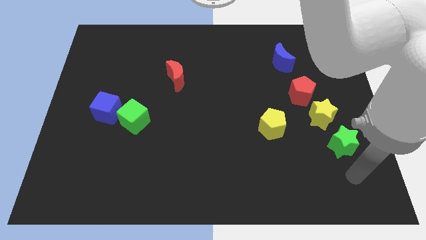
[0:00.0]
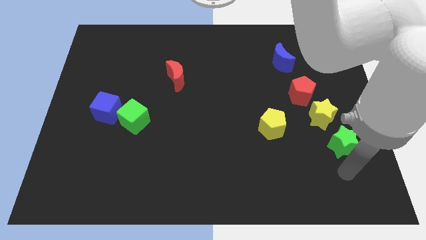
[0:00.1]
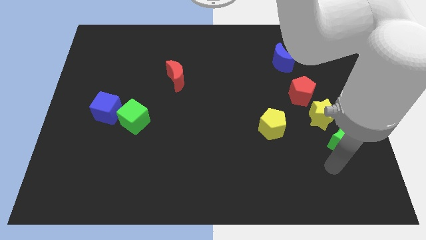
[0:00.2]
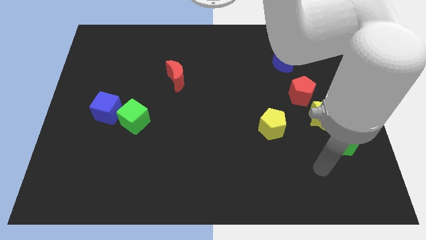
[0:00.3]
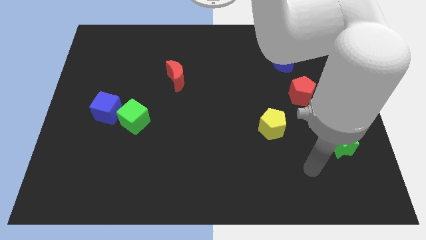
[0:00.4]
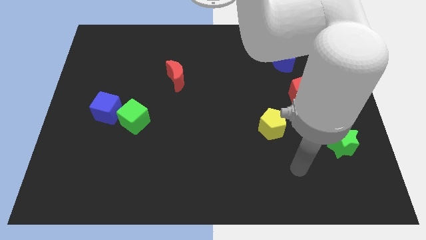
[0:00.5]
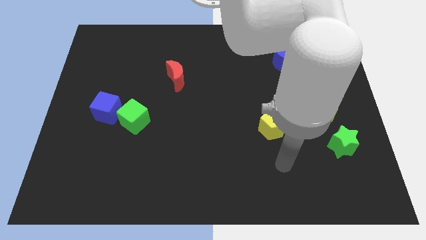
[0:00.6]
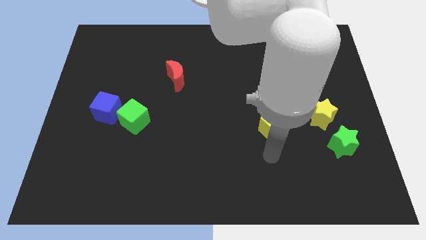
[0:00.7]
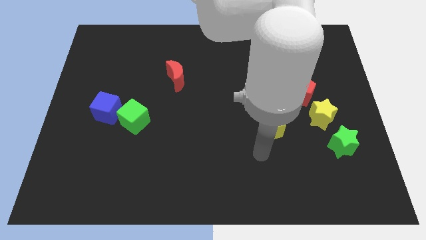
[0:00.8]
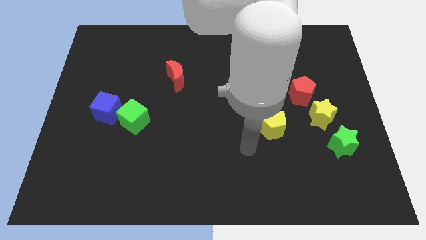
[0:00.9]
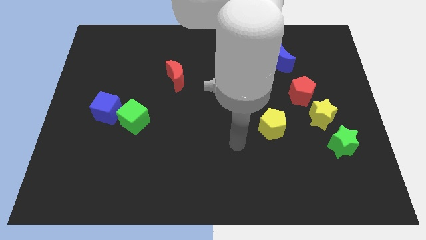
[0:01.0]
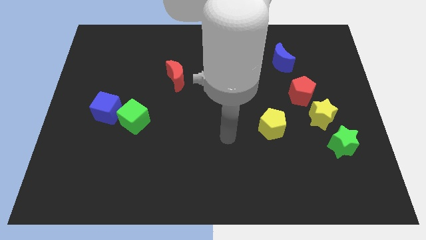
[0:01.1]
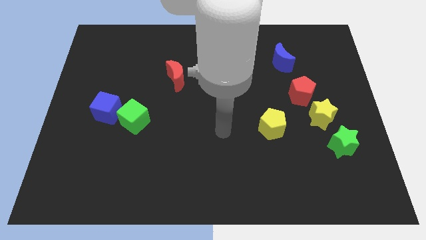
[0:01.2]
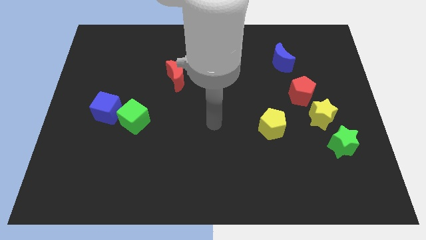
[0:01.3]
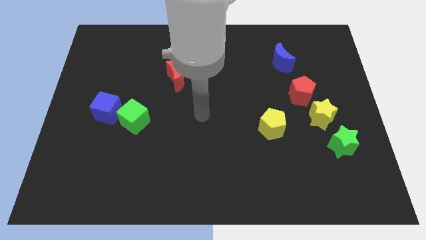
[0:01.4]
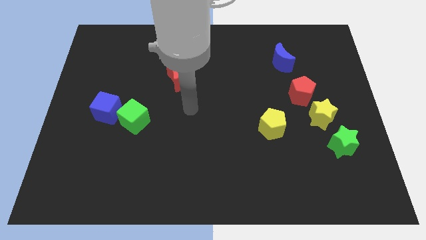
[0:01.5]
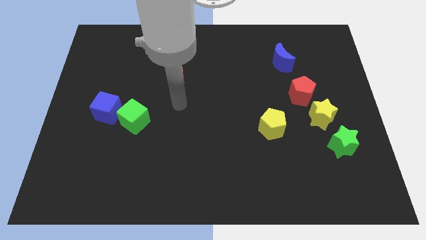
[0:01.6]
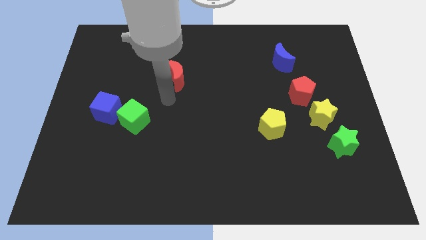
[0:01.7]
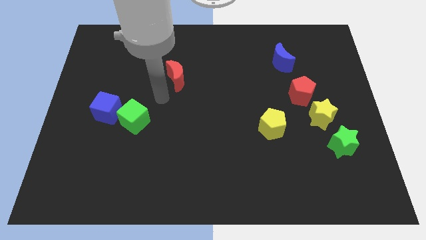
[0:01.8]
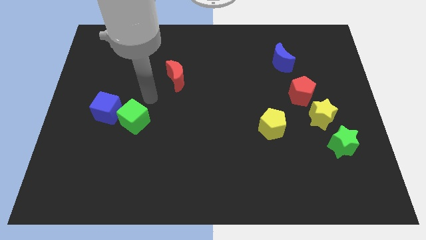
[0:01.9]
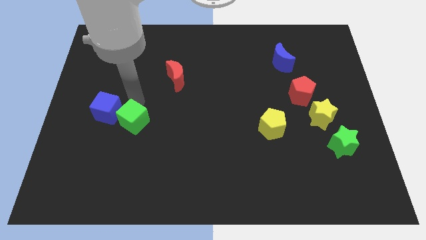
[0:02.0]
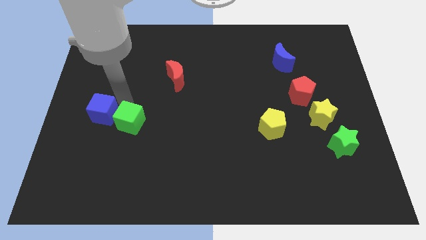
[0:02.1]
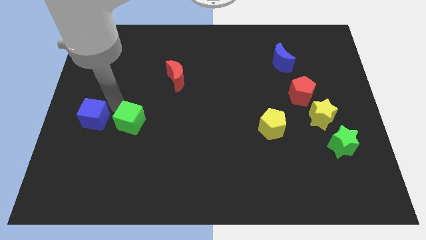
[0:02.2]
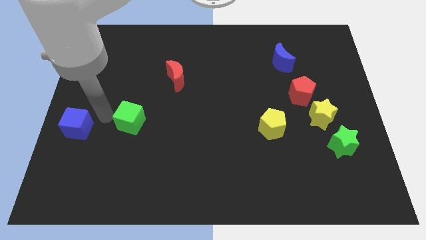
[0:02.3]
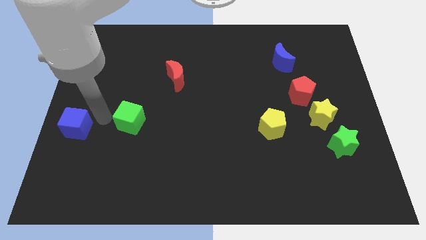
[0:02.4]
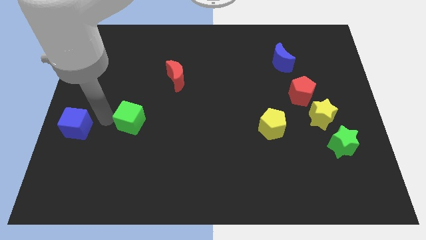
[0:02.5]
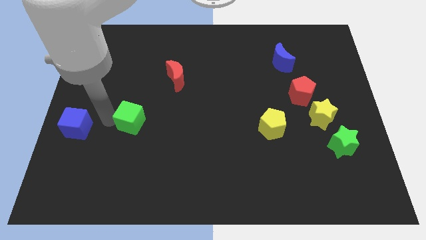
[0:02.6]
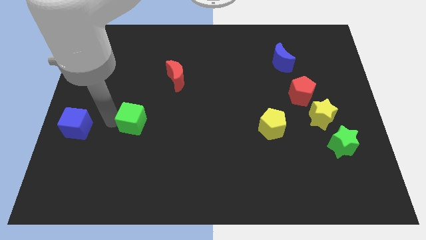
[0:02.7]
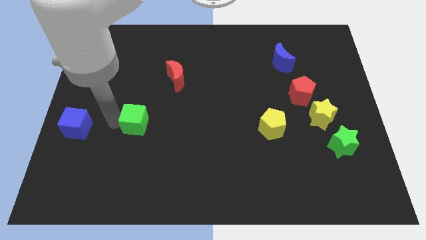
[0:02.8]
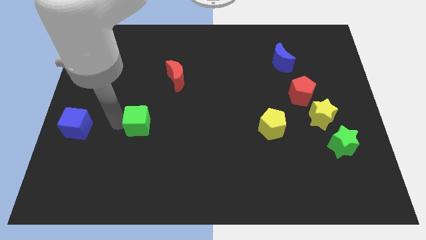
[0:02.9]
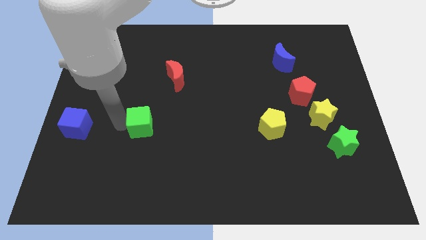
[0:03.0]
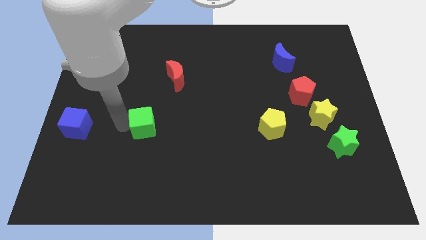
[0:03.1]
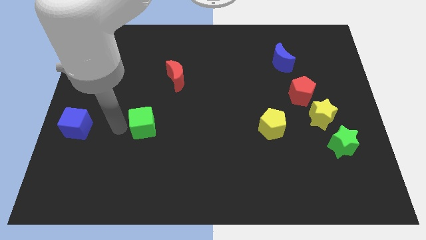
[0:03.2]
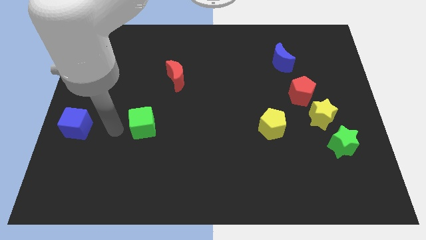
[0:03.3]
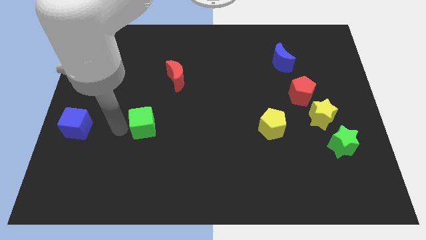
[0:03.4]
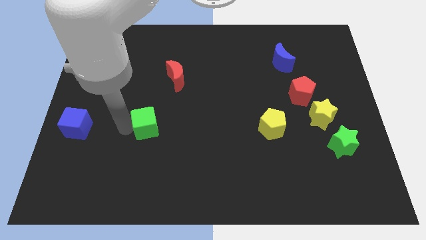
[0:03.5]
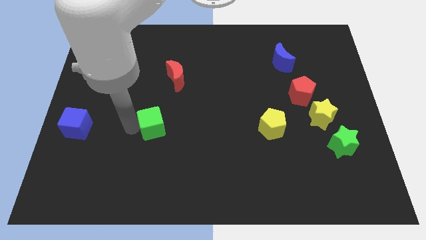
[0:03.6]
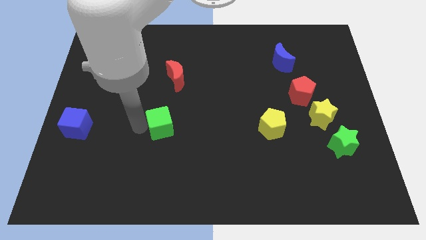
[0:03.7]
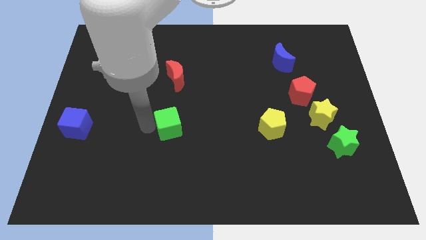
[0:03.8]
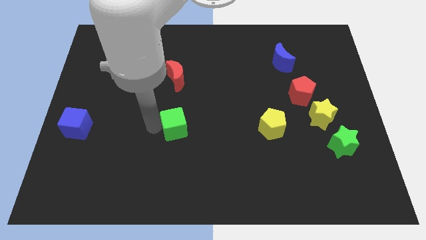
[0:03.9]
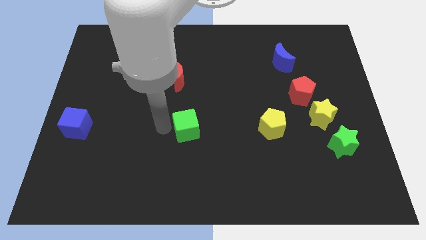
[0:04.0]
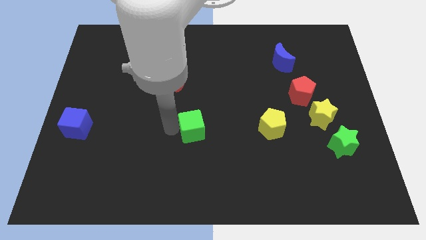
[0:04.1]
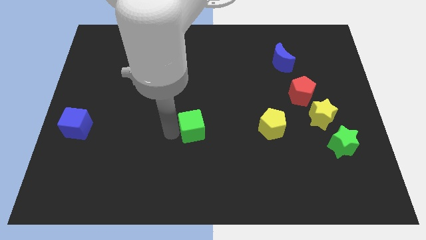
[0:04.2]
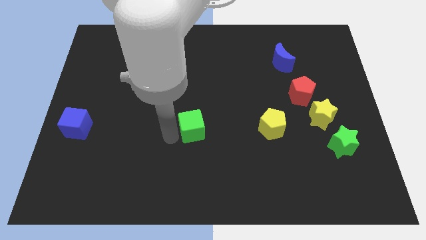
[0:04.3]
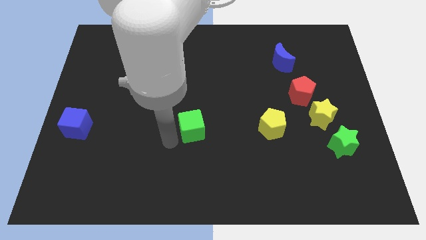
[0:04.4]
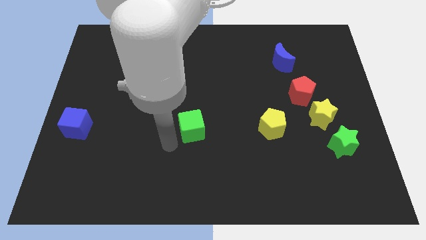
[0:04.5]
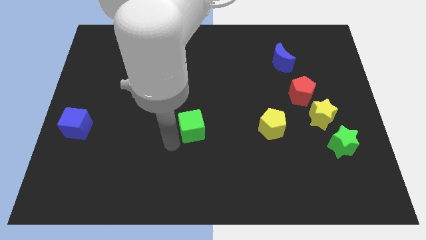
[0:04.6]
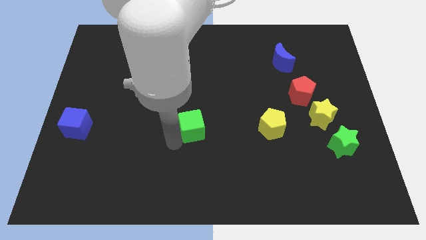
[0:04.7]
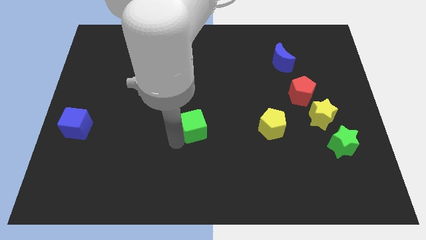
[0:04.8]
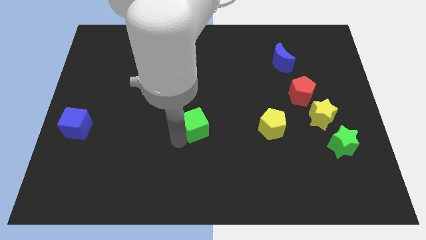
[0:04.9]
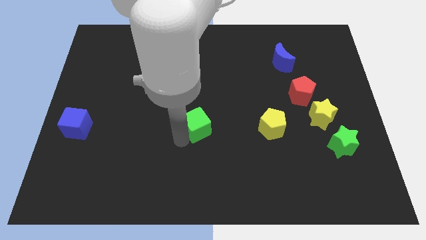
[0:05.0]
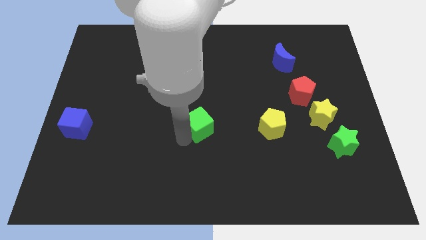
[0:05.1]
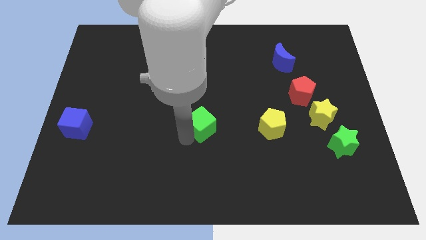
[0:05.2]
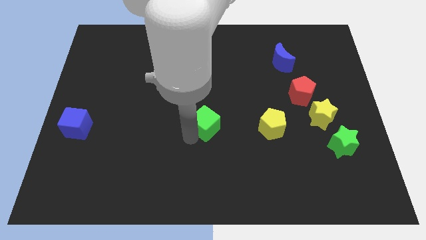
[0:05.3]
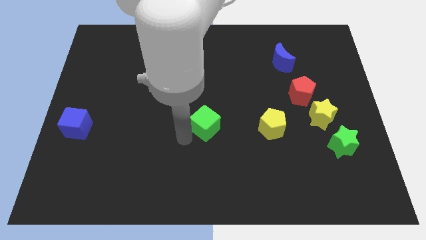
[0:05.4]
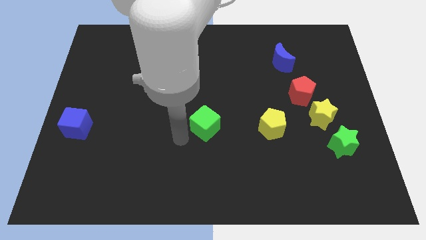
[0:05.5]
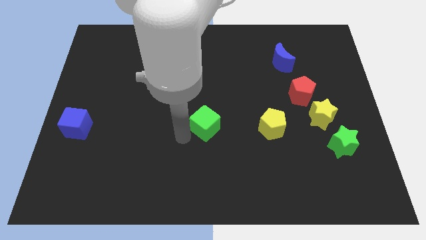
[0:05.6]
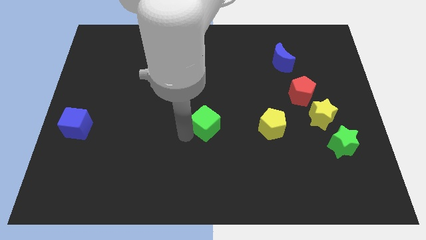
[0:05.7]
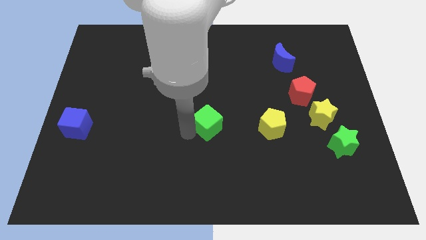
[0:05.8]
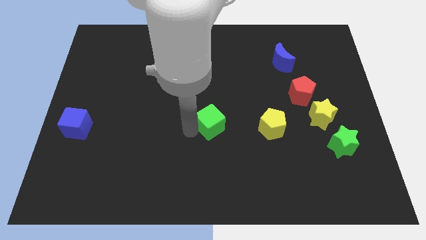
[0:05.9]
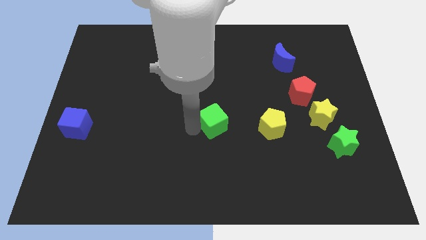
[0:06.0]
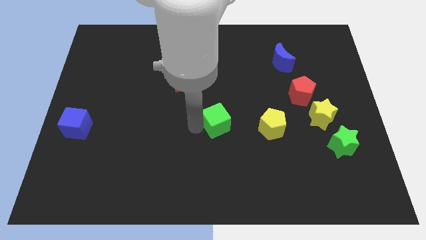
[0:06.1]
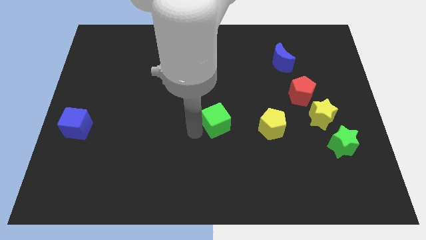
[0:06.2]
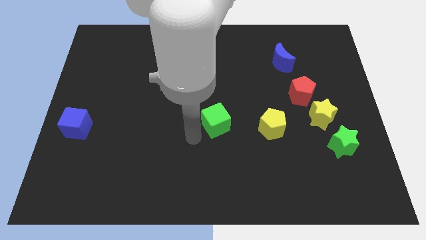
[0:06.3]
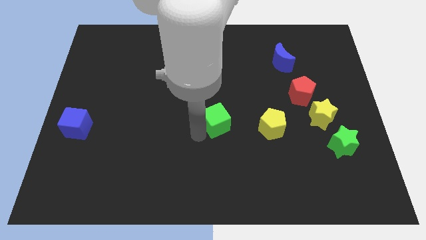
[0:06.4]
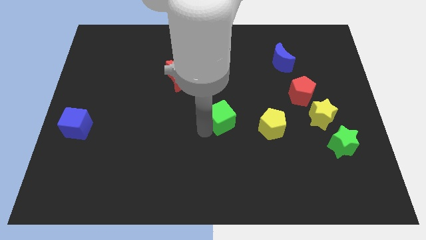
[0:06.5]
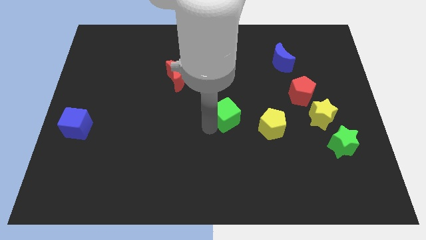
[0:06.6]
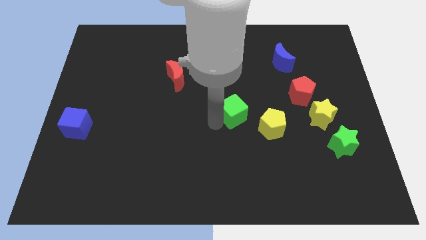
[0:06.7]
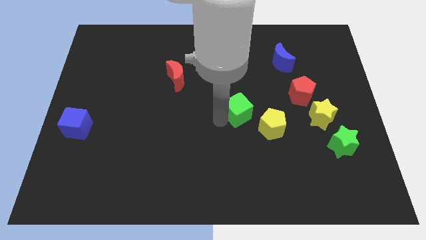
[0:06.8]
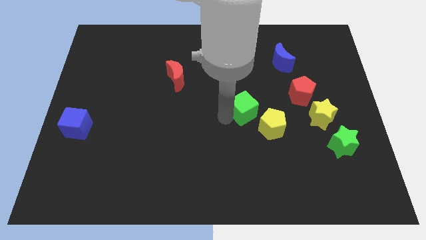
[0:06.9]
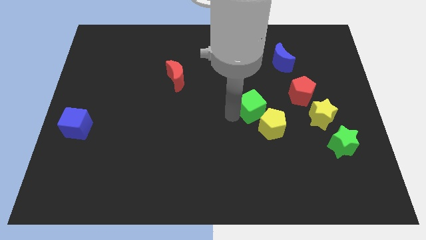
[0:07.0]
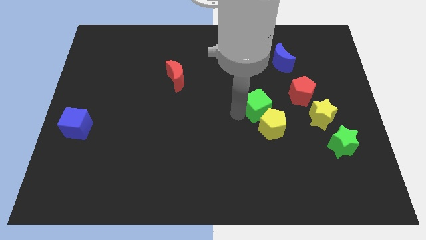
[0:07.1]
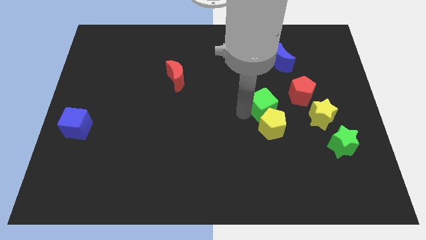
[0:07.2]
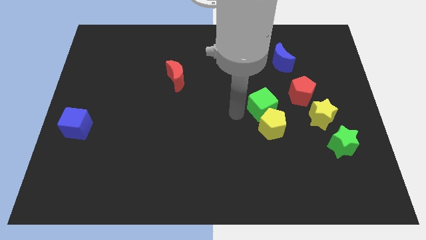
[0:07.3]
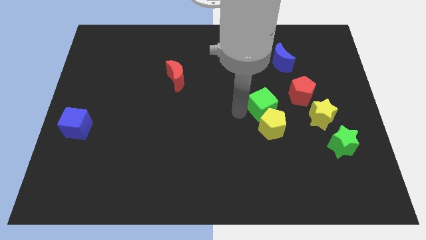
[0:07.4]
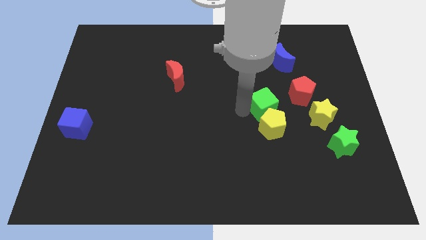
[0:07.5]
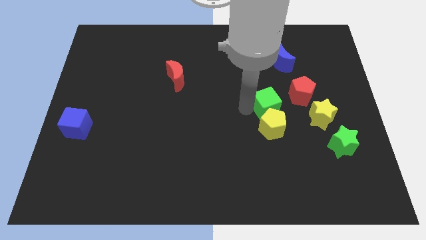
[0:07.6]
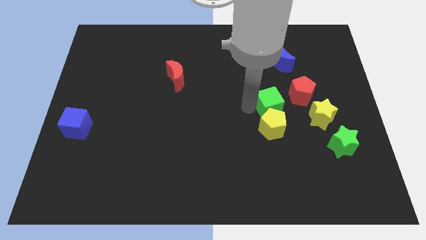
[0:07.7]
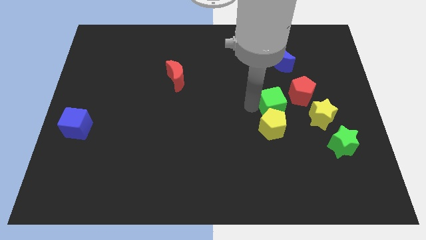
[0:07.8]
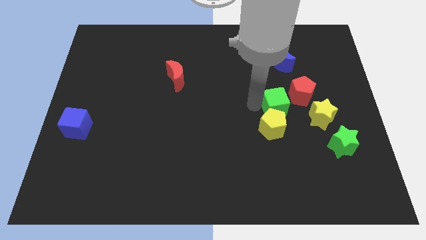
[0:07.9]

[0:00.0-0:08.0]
slide the green cube to the top left side of the yellow star
